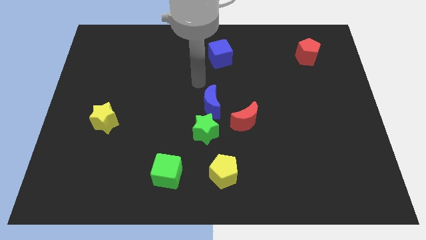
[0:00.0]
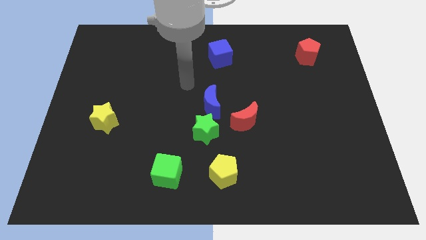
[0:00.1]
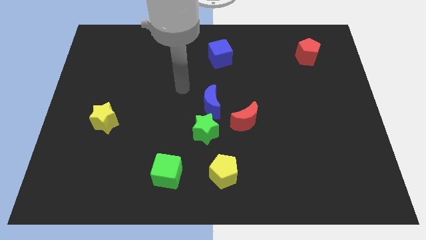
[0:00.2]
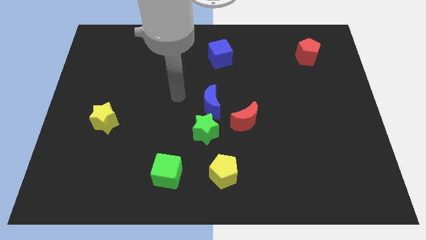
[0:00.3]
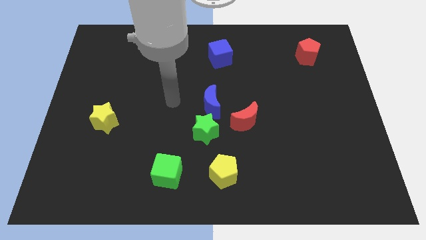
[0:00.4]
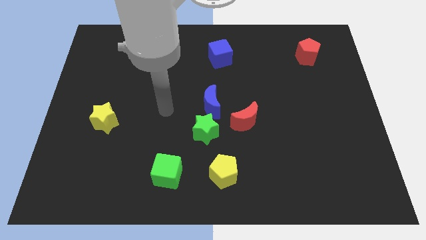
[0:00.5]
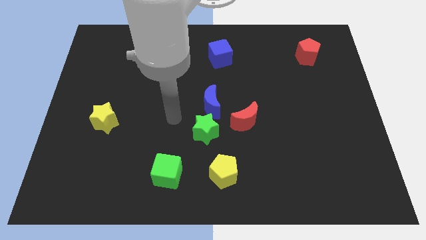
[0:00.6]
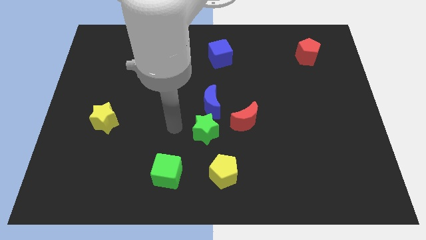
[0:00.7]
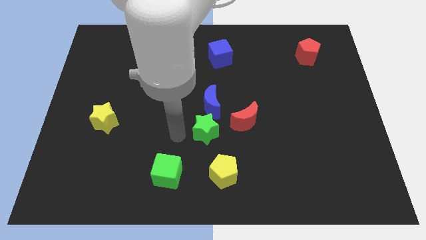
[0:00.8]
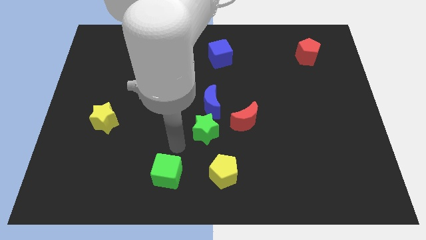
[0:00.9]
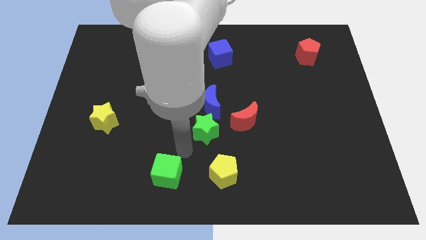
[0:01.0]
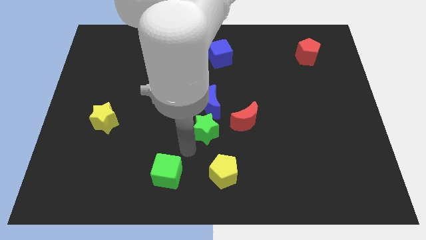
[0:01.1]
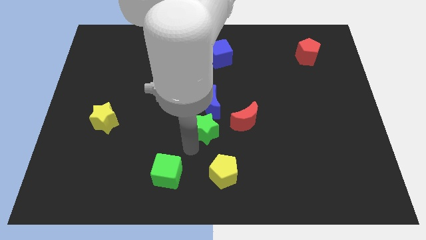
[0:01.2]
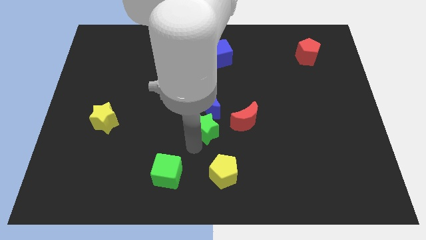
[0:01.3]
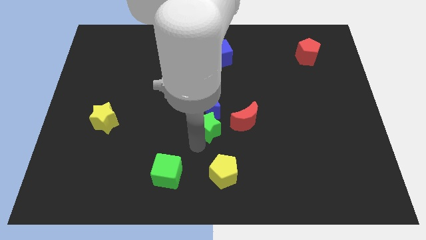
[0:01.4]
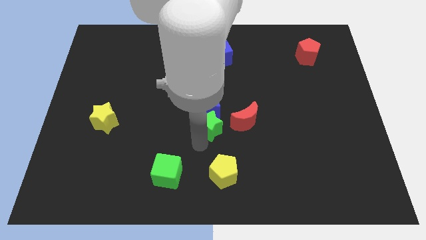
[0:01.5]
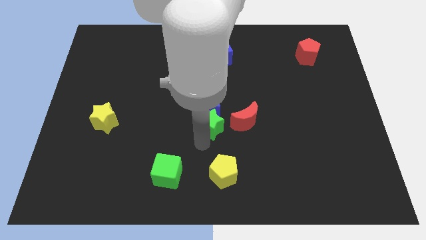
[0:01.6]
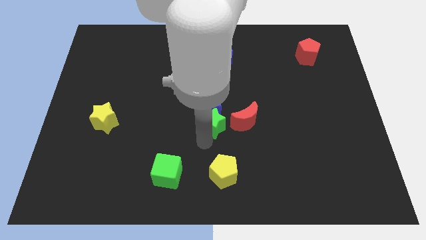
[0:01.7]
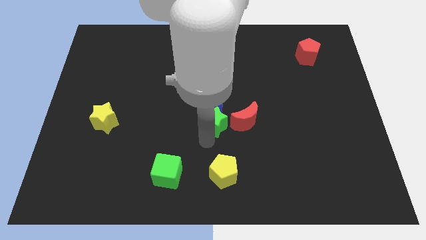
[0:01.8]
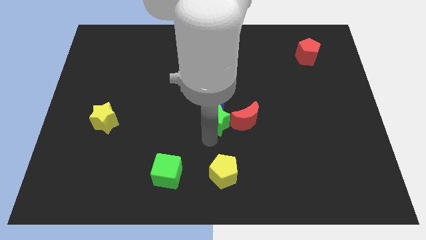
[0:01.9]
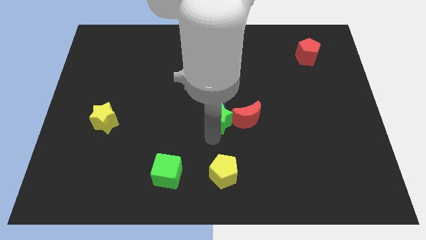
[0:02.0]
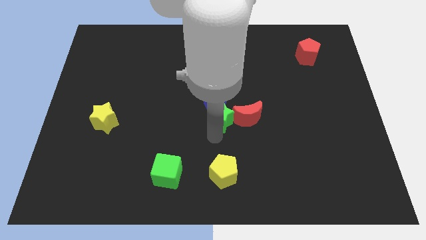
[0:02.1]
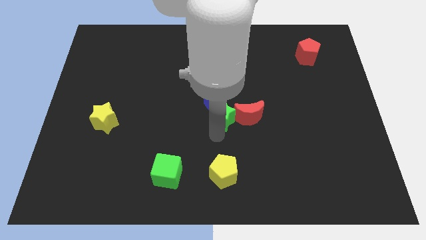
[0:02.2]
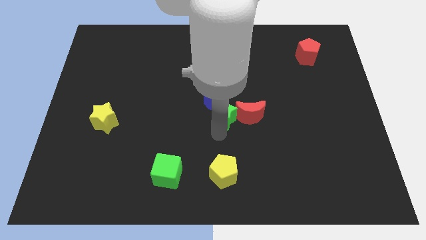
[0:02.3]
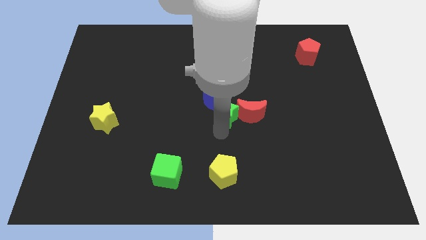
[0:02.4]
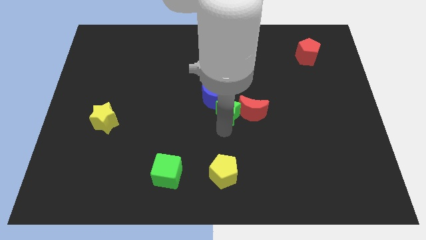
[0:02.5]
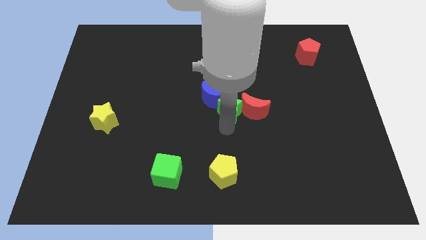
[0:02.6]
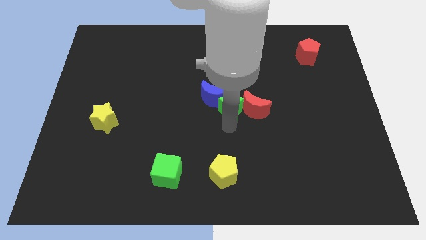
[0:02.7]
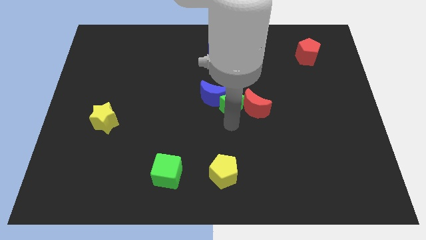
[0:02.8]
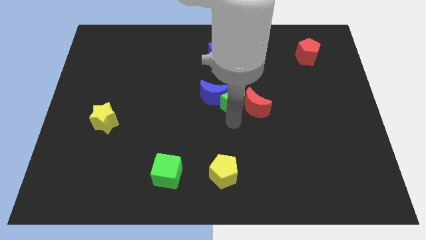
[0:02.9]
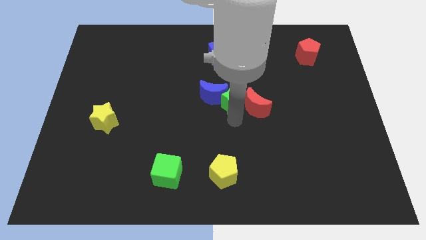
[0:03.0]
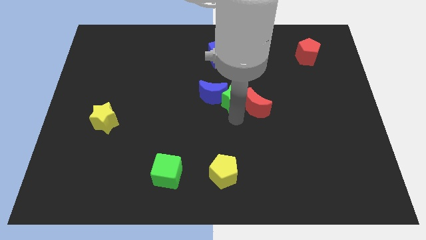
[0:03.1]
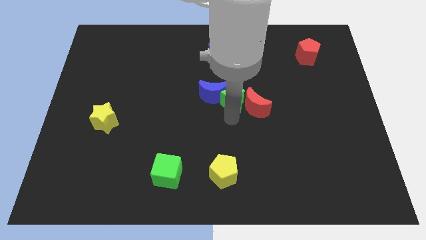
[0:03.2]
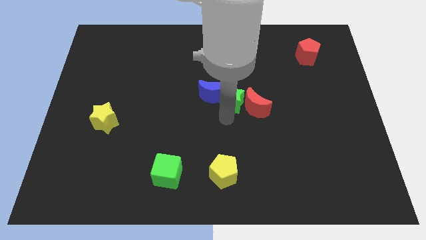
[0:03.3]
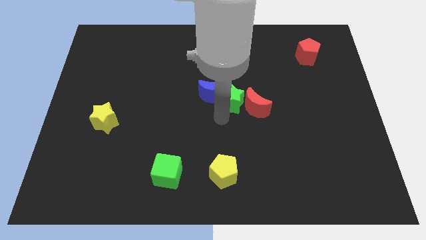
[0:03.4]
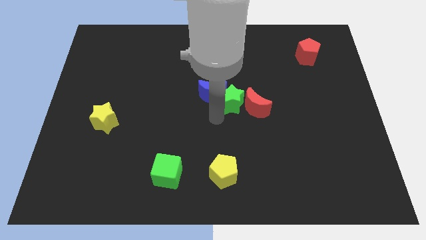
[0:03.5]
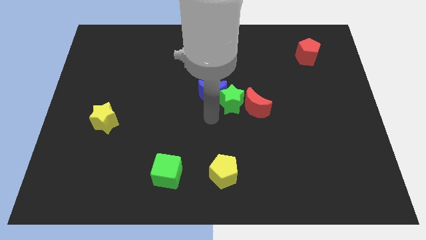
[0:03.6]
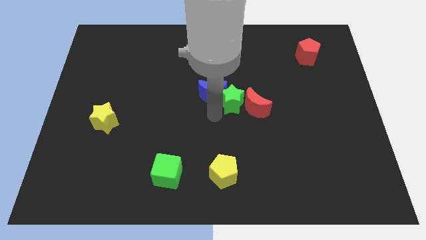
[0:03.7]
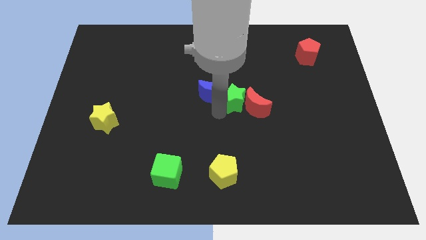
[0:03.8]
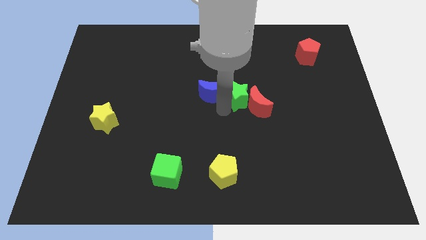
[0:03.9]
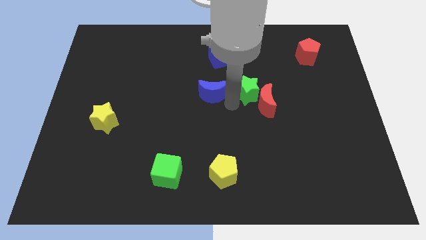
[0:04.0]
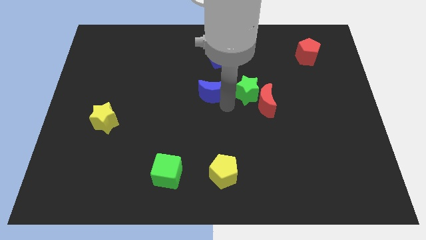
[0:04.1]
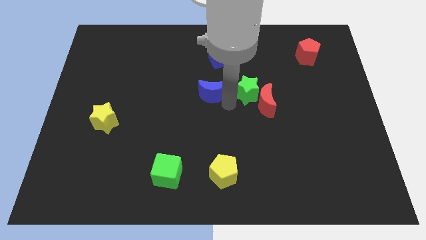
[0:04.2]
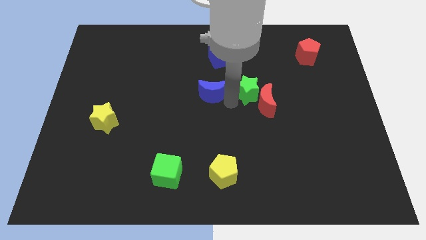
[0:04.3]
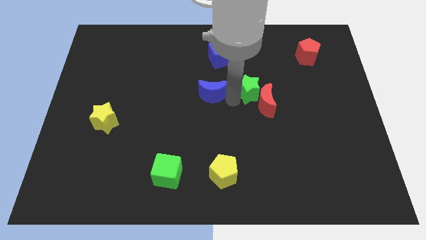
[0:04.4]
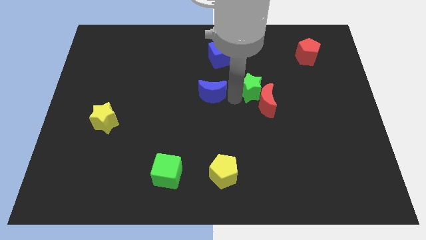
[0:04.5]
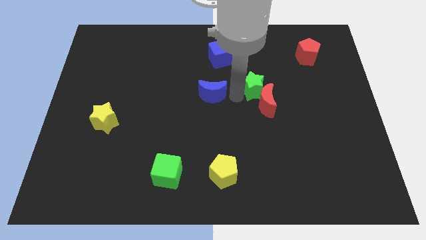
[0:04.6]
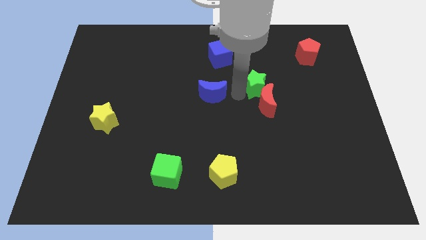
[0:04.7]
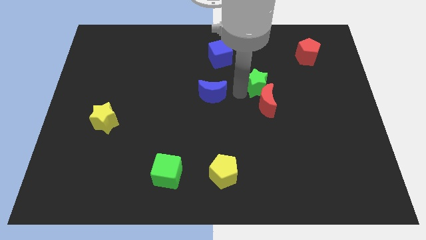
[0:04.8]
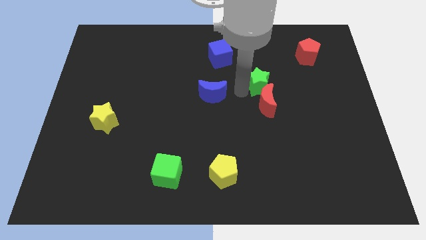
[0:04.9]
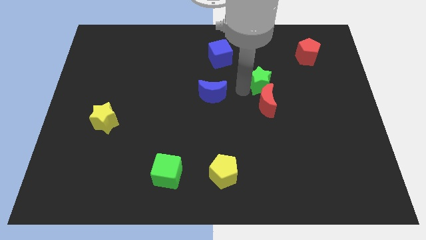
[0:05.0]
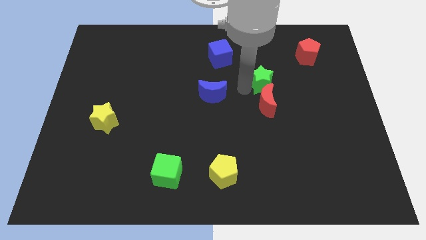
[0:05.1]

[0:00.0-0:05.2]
slide the green star upwards and then to the right

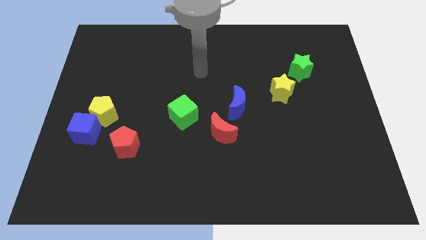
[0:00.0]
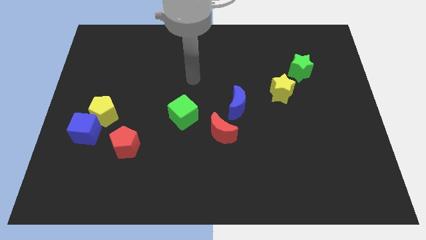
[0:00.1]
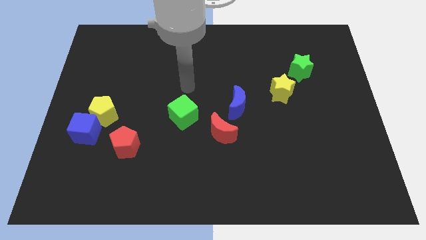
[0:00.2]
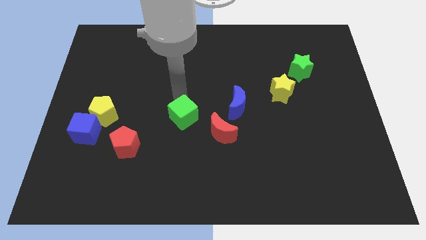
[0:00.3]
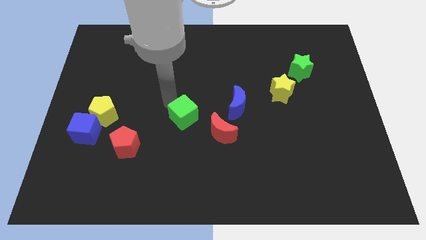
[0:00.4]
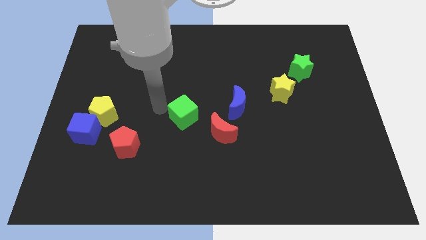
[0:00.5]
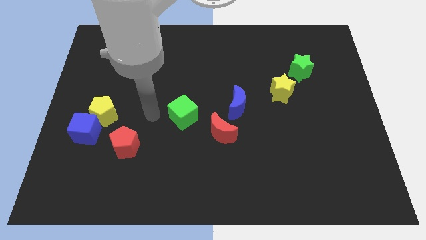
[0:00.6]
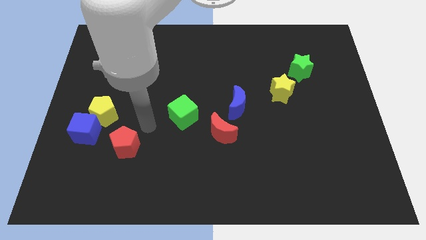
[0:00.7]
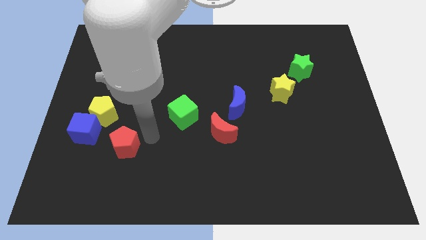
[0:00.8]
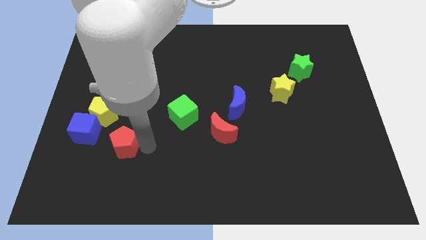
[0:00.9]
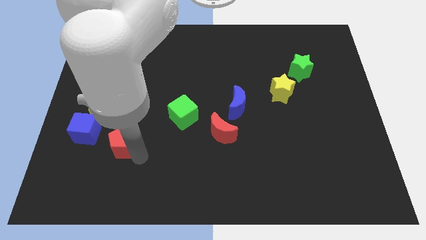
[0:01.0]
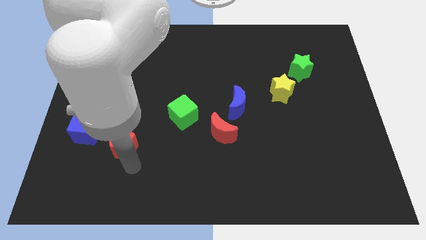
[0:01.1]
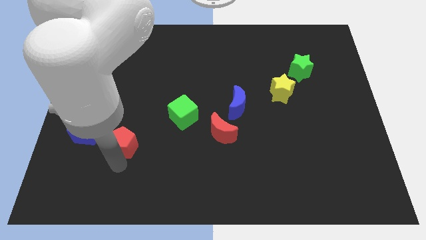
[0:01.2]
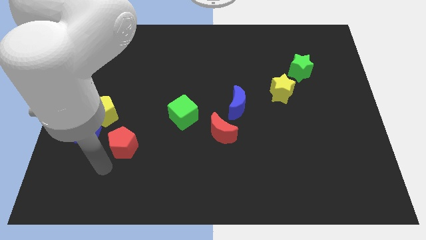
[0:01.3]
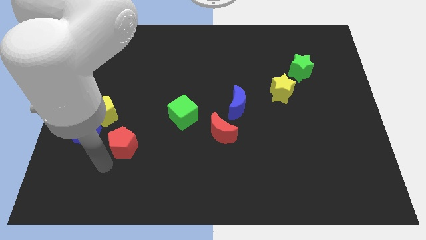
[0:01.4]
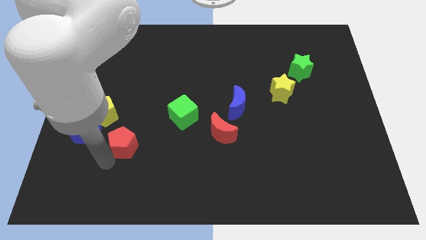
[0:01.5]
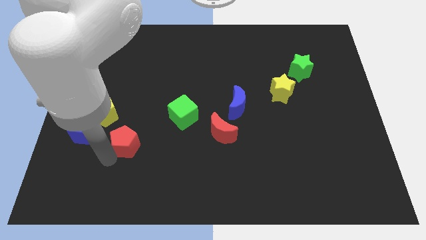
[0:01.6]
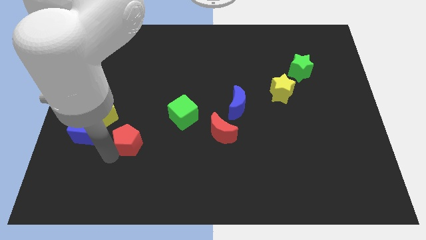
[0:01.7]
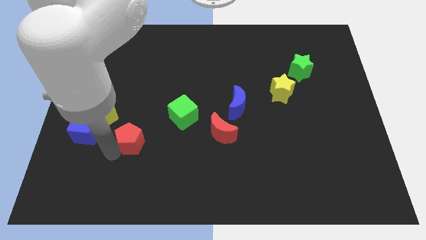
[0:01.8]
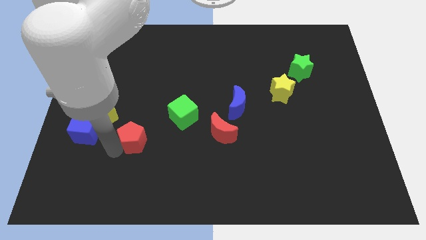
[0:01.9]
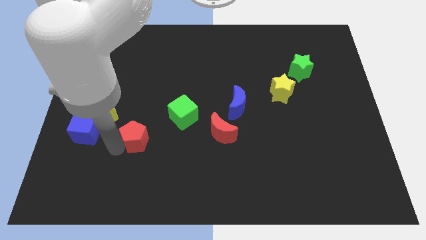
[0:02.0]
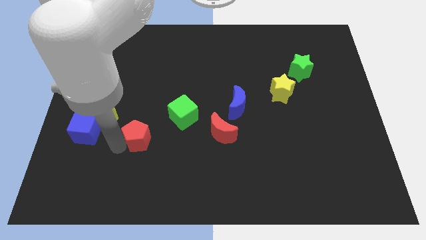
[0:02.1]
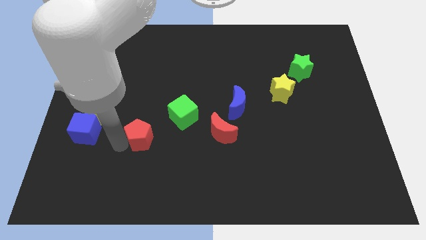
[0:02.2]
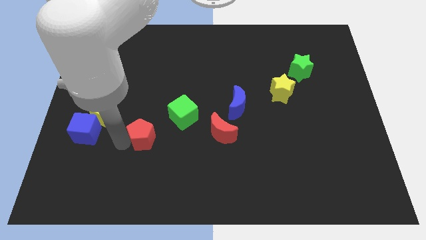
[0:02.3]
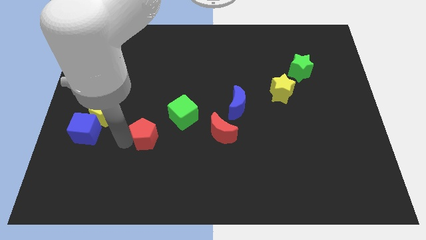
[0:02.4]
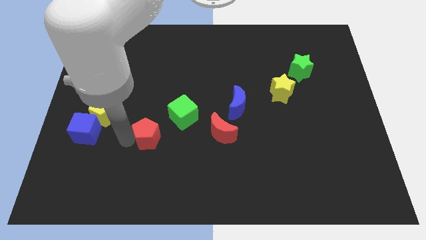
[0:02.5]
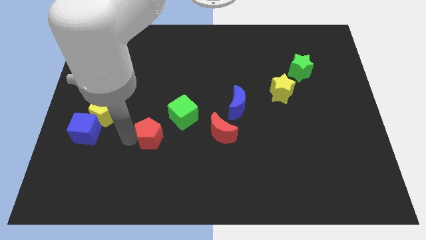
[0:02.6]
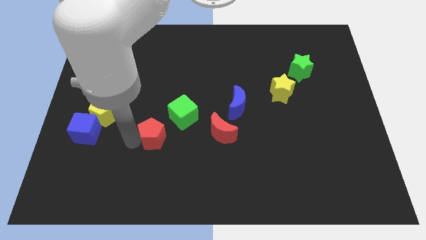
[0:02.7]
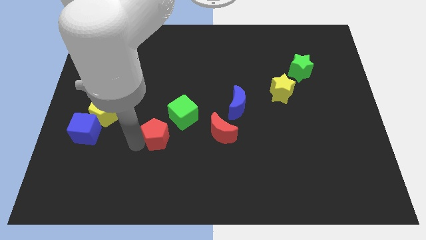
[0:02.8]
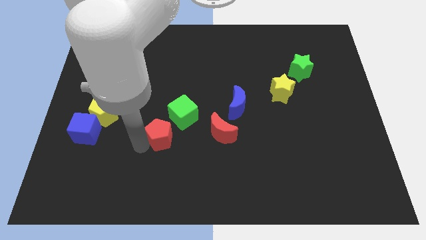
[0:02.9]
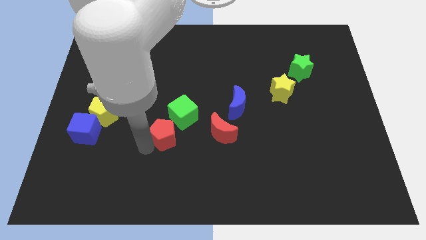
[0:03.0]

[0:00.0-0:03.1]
push the red pentagon a bit upwards and right diagonally

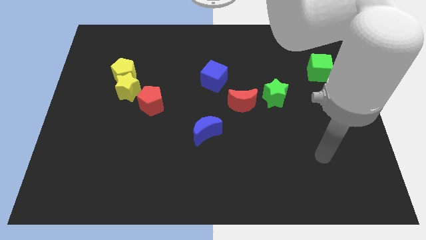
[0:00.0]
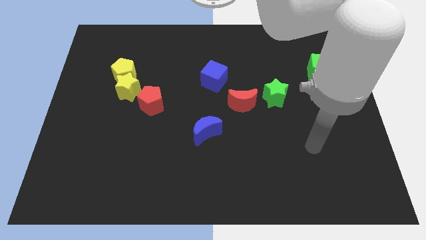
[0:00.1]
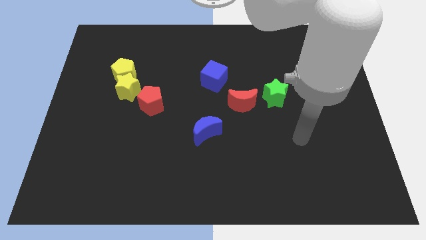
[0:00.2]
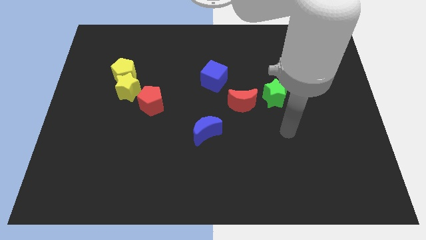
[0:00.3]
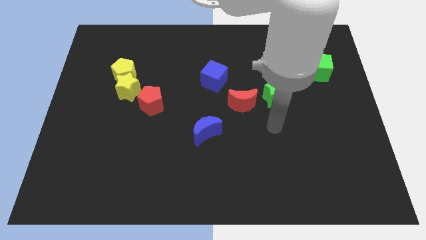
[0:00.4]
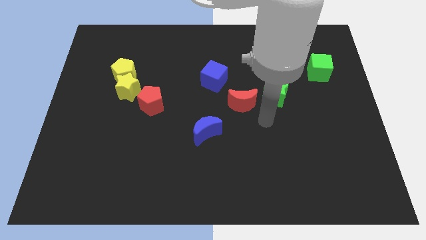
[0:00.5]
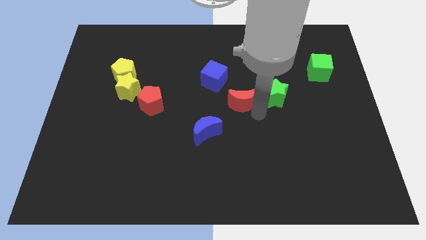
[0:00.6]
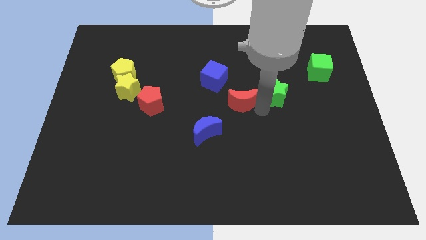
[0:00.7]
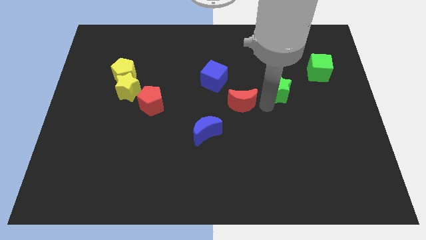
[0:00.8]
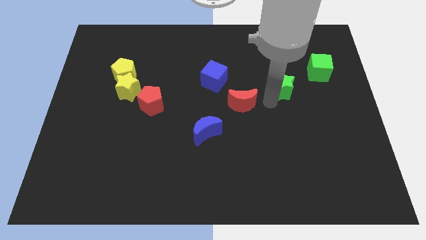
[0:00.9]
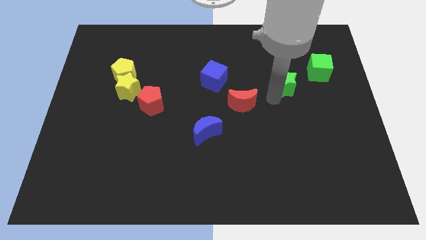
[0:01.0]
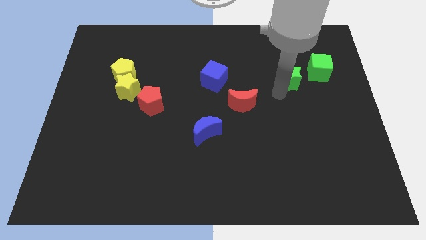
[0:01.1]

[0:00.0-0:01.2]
move the green star up and then to the right a bit
